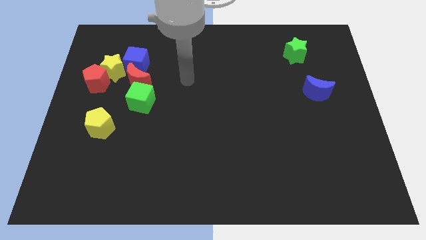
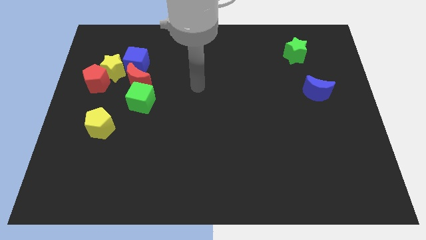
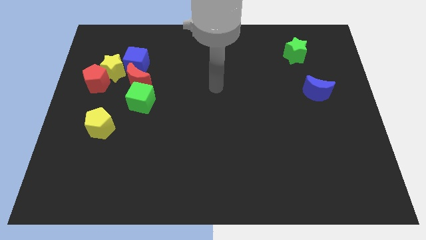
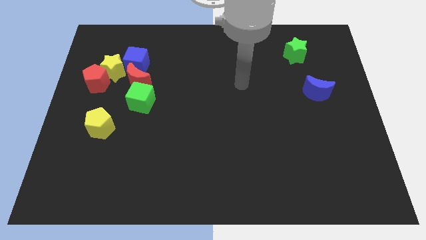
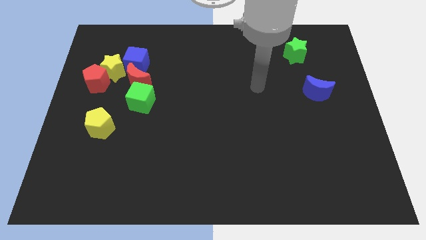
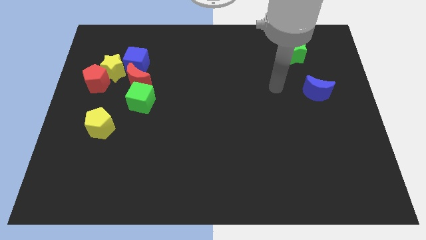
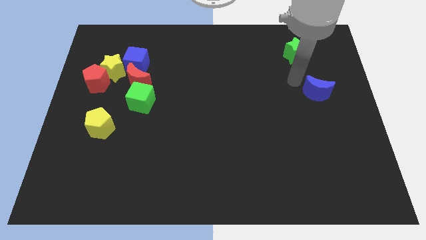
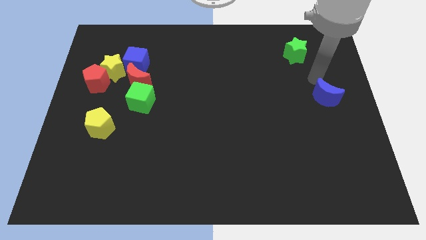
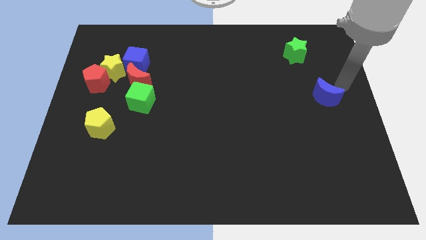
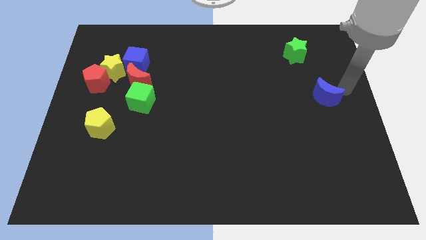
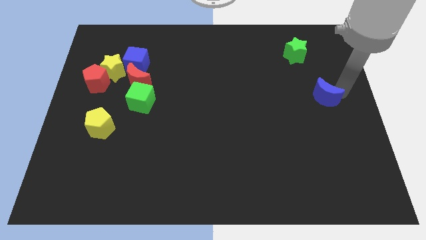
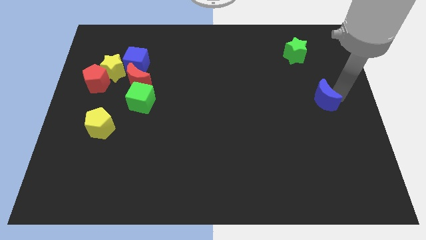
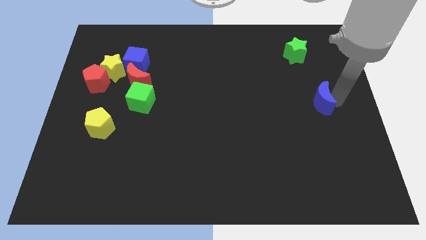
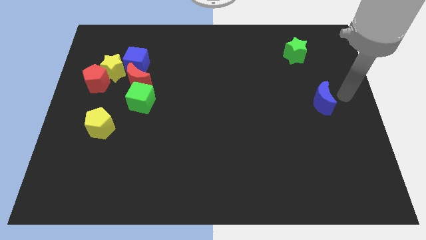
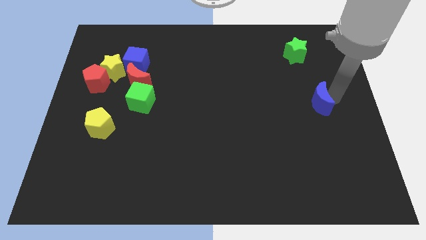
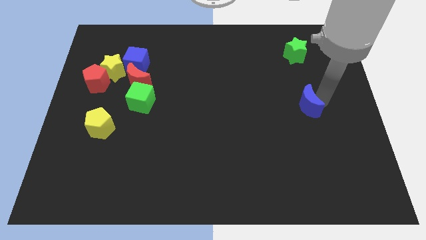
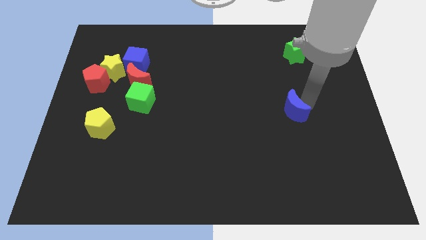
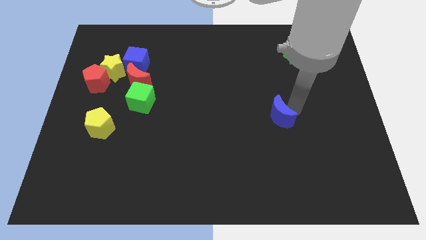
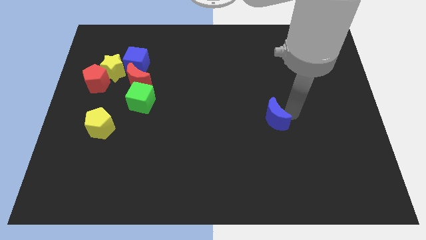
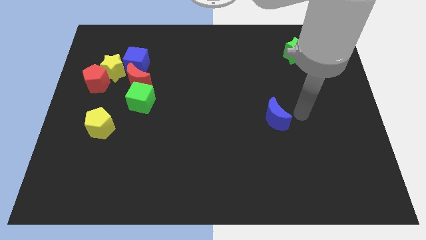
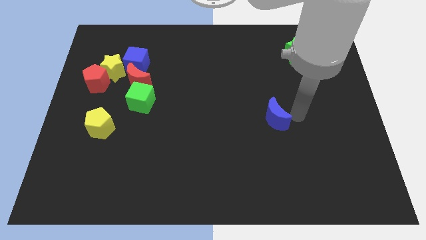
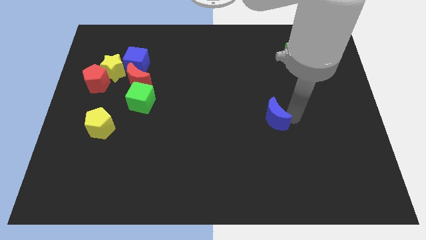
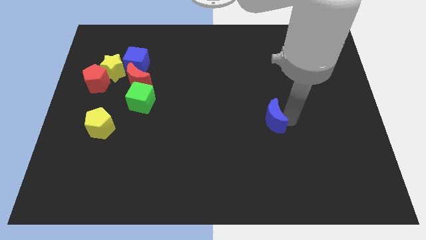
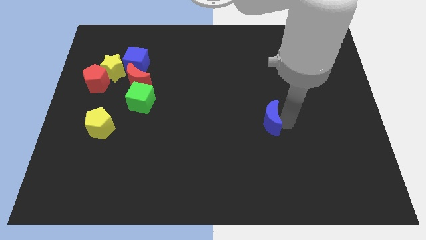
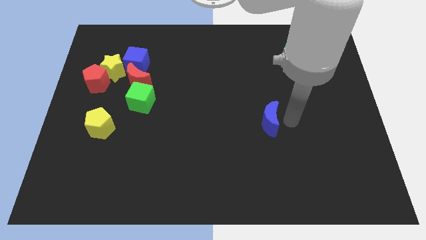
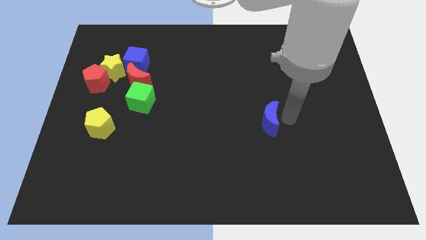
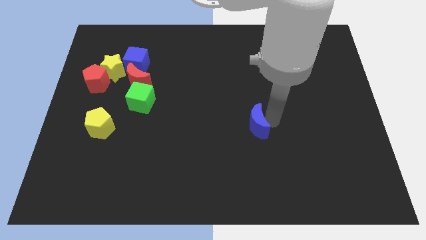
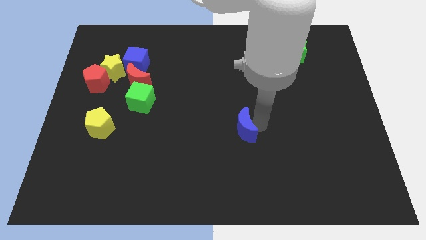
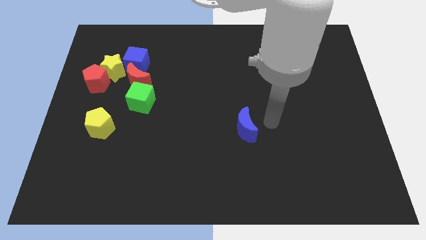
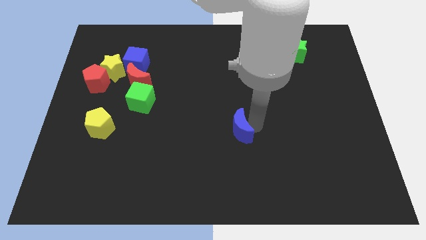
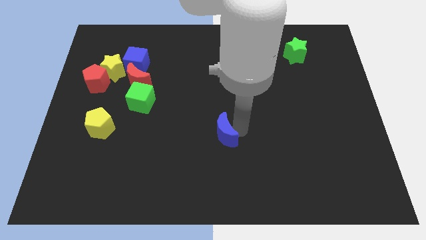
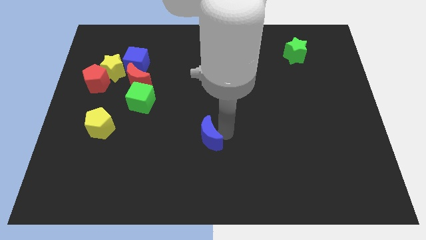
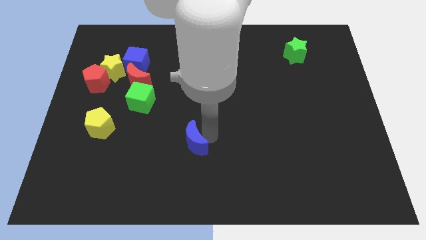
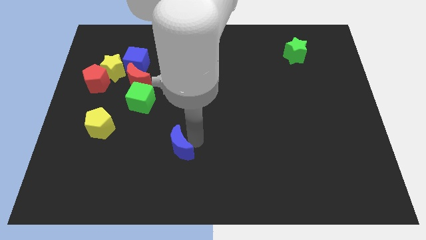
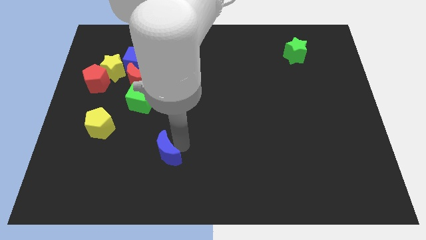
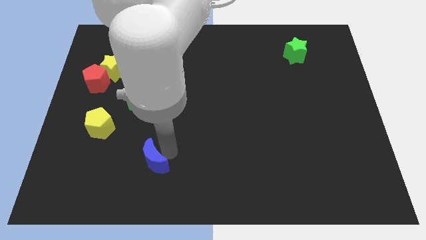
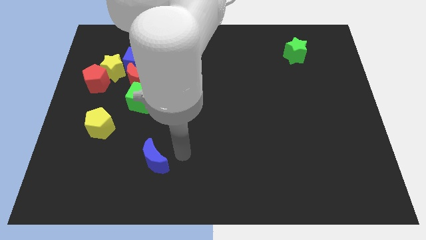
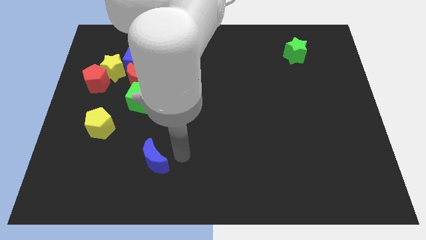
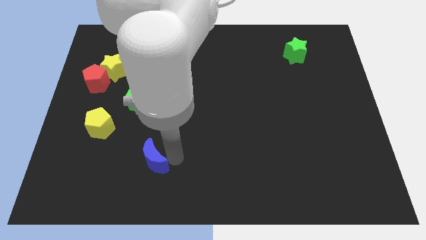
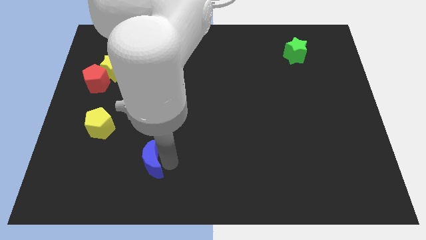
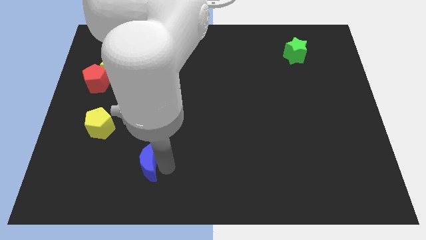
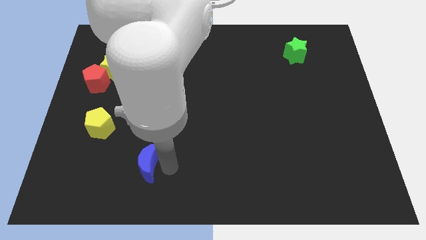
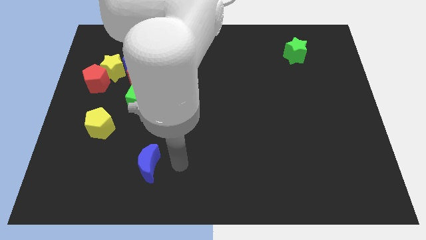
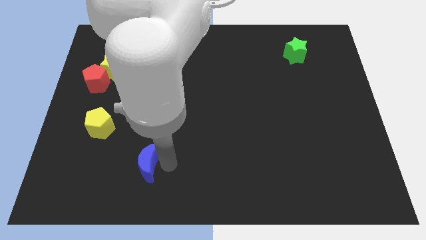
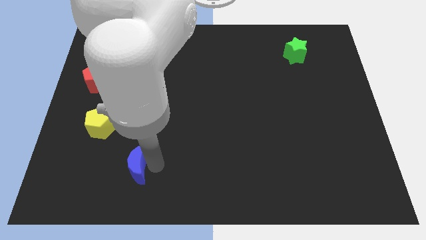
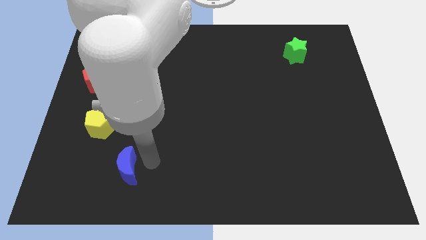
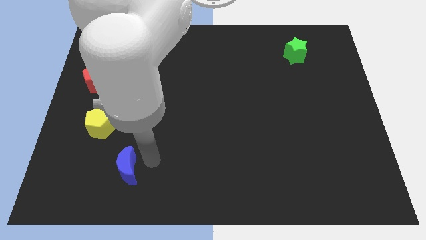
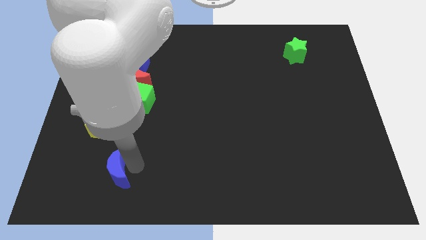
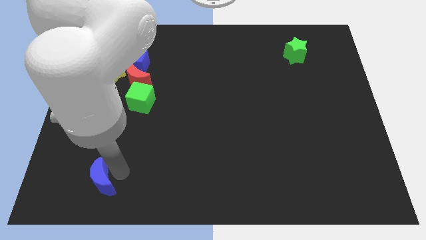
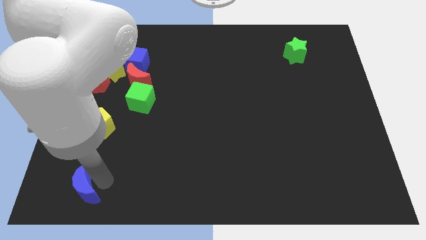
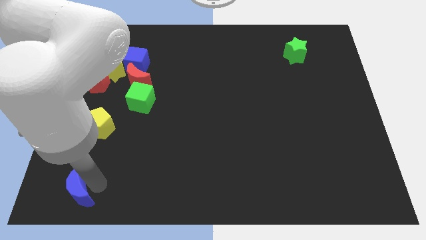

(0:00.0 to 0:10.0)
slide the blue moon to the bottom left corner

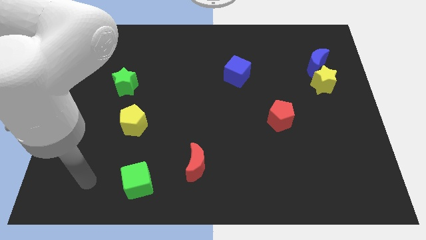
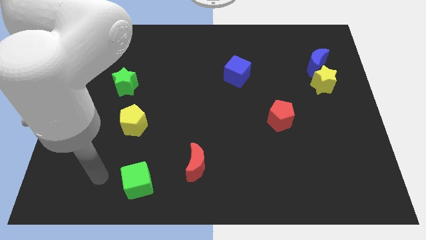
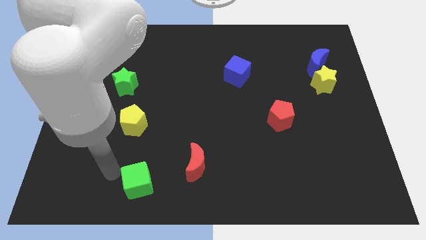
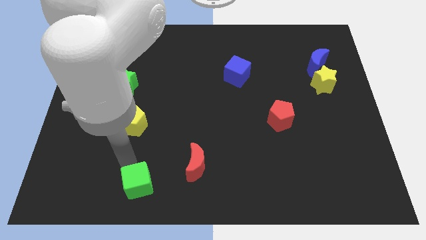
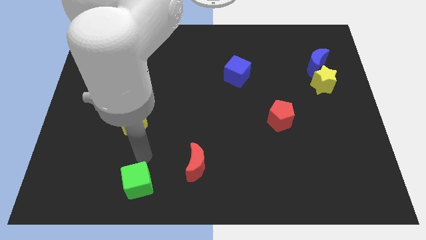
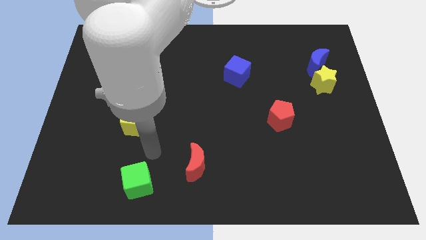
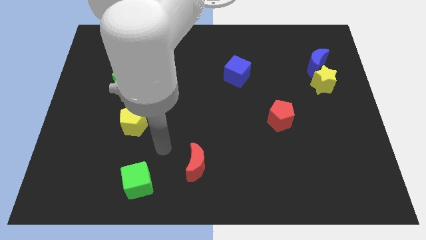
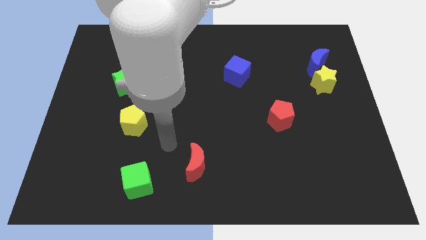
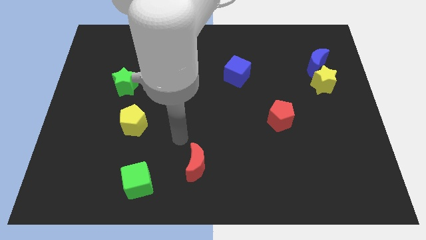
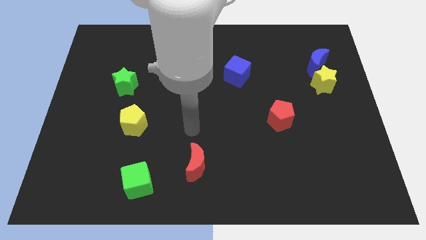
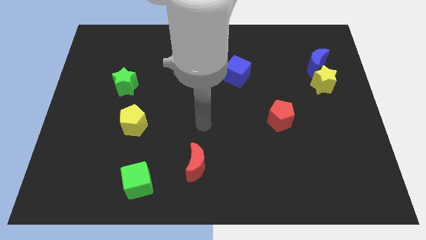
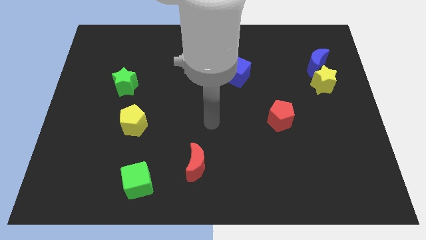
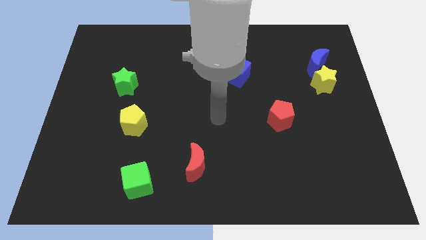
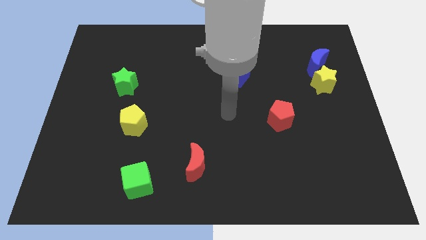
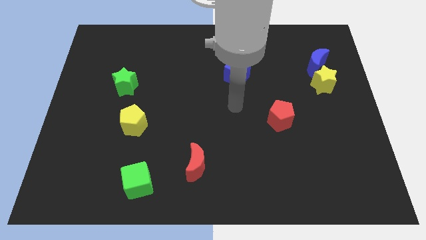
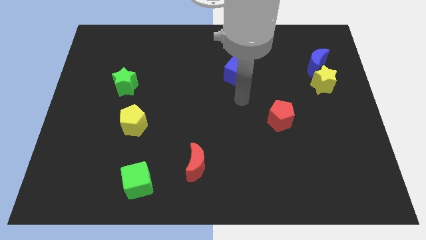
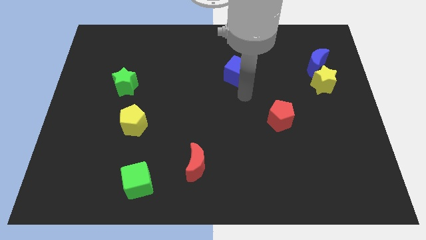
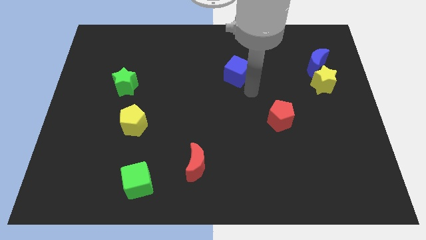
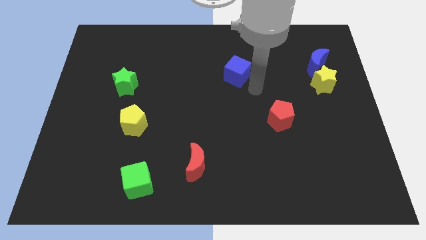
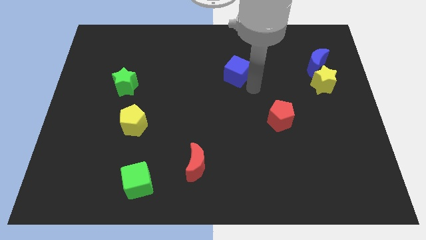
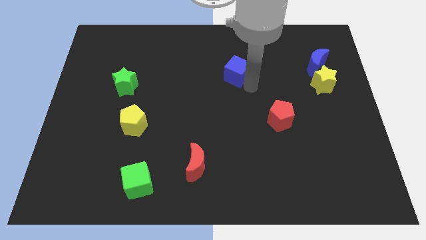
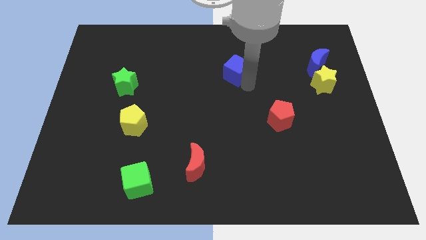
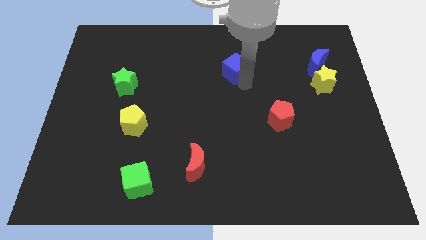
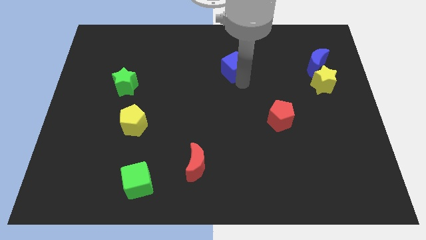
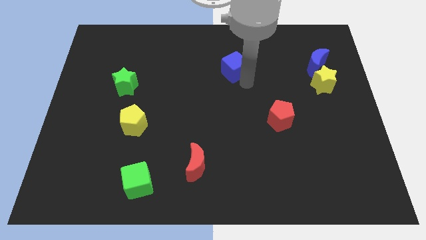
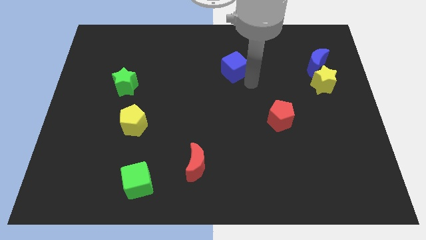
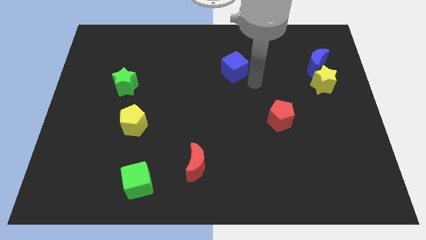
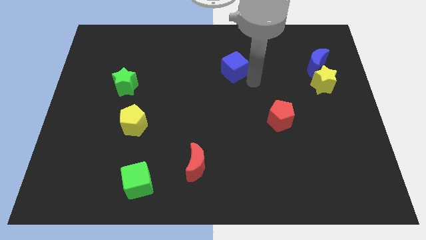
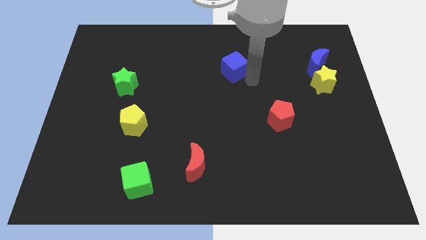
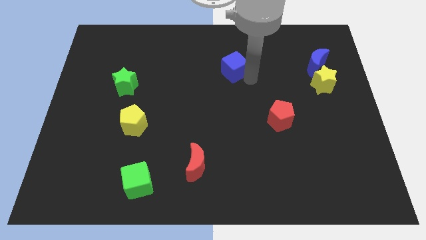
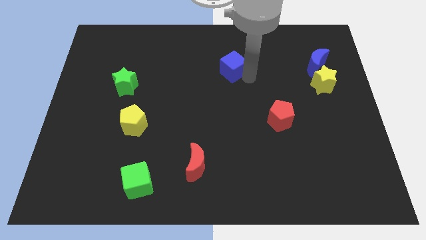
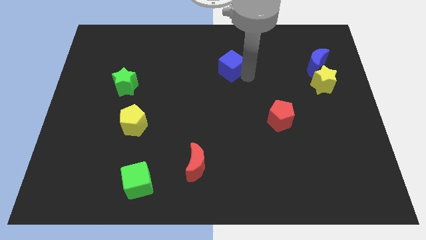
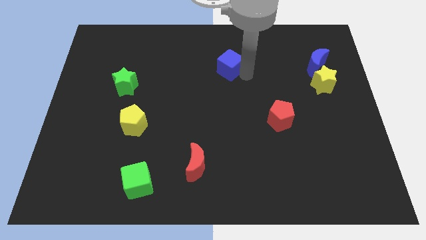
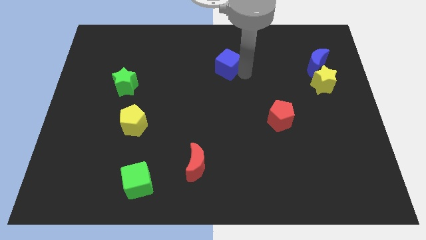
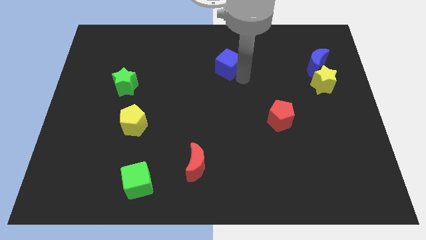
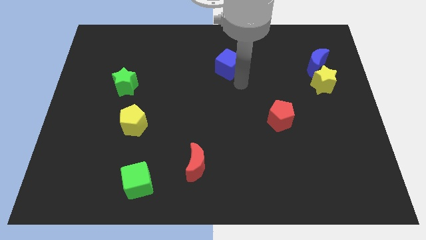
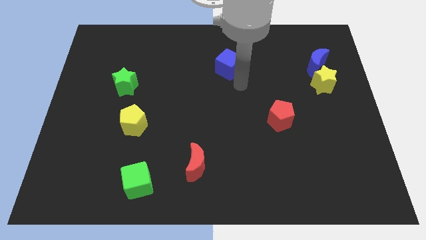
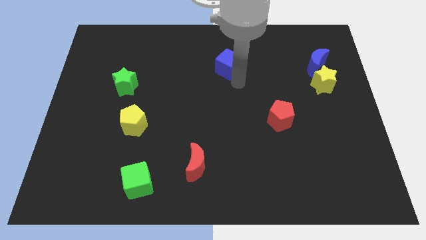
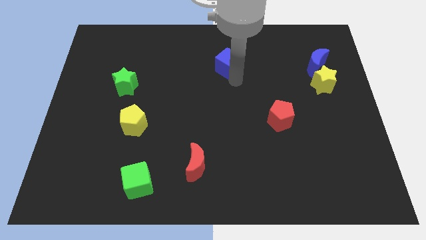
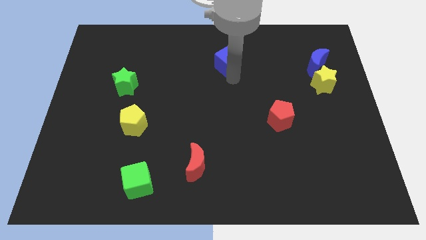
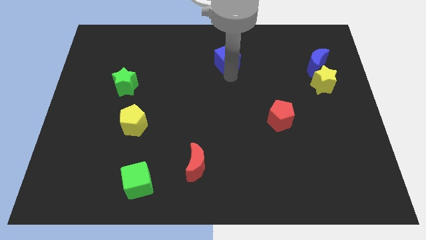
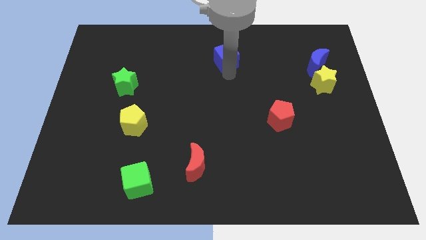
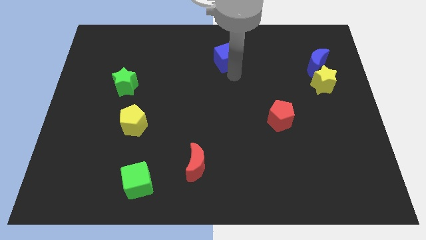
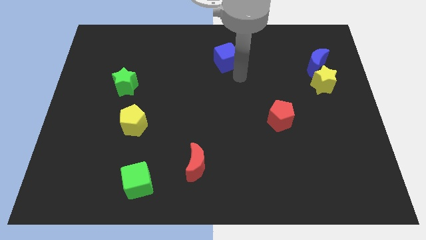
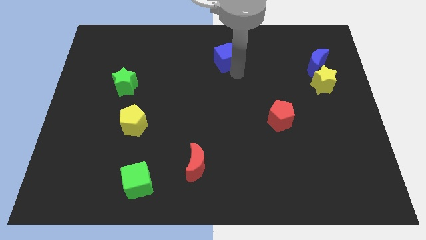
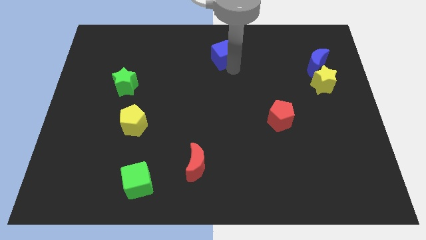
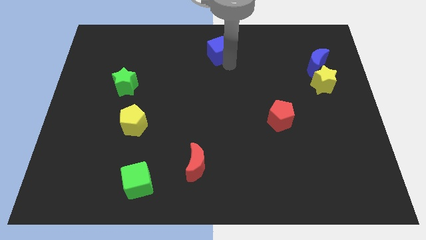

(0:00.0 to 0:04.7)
push the blue cube to the top side
